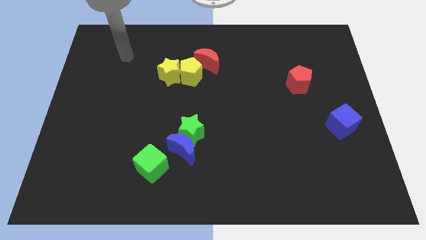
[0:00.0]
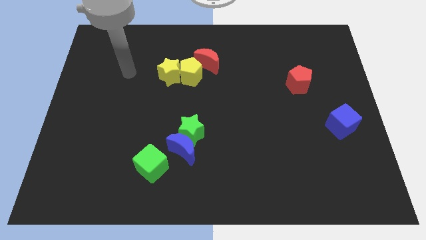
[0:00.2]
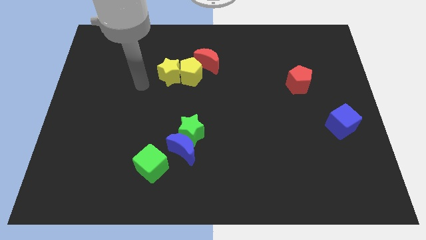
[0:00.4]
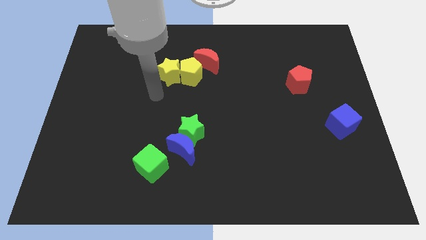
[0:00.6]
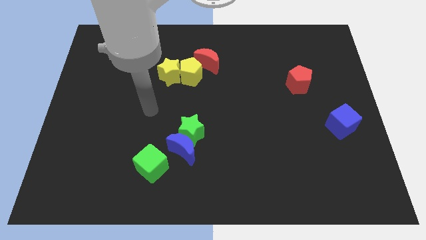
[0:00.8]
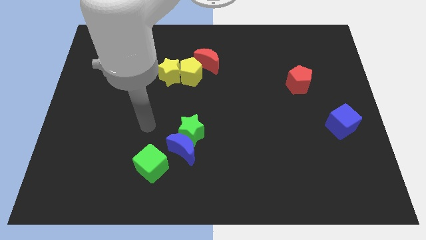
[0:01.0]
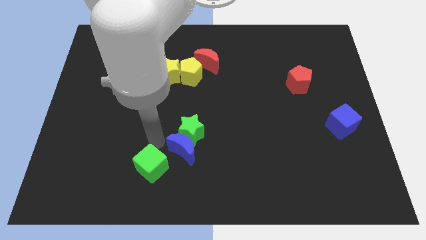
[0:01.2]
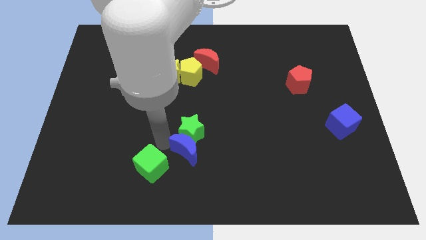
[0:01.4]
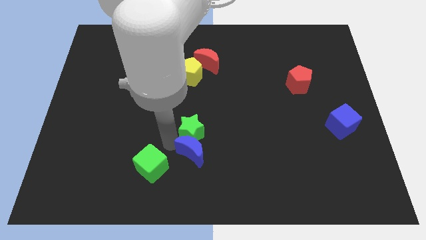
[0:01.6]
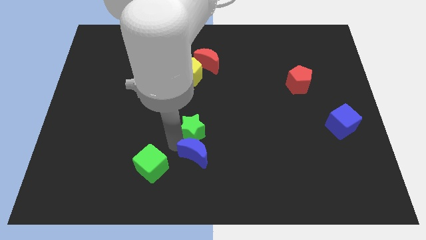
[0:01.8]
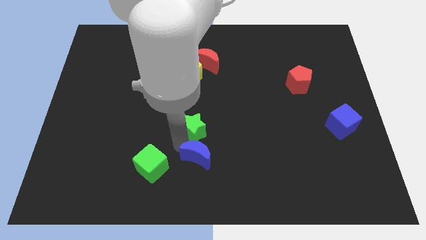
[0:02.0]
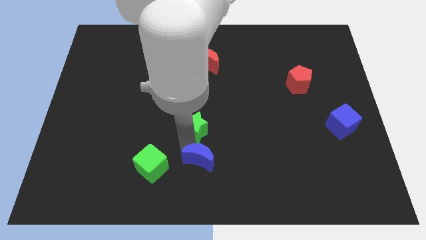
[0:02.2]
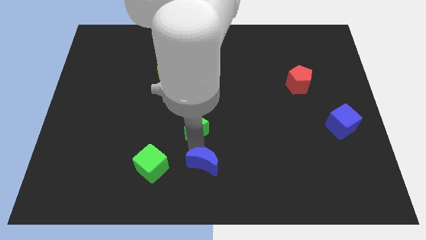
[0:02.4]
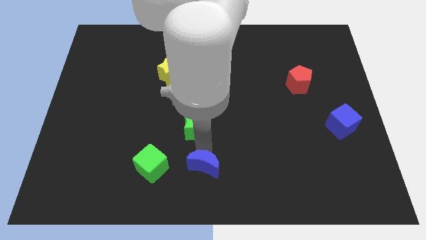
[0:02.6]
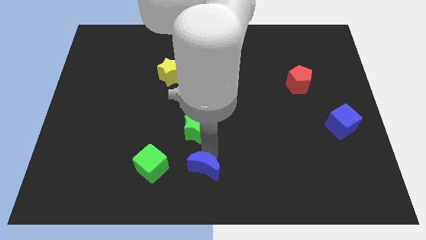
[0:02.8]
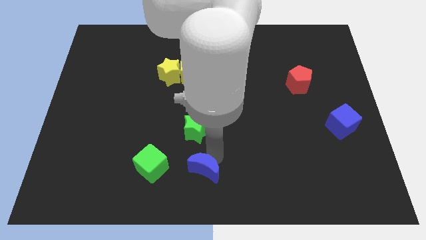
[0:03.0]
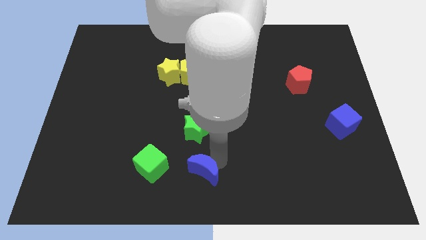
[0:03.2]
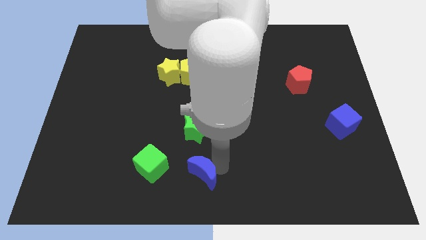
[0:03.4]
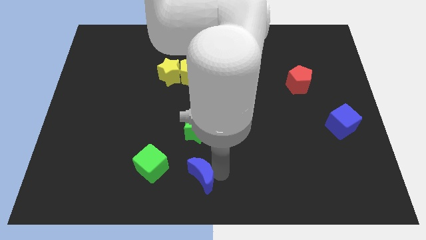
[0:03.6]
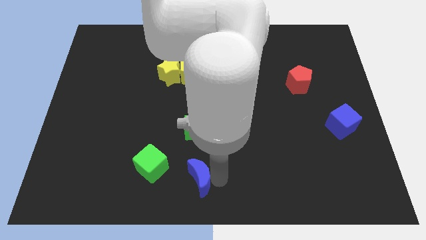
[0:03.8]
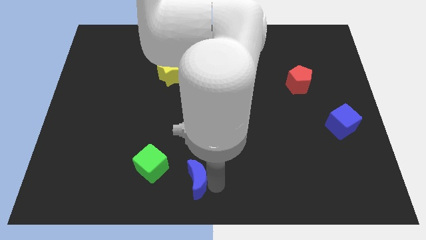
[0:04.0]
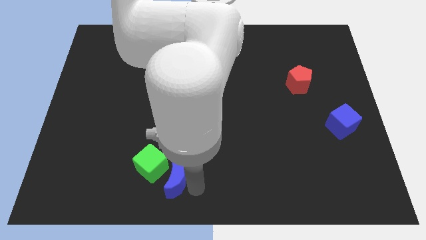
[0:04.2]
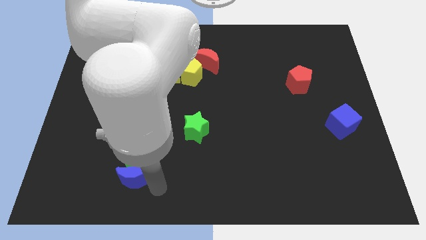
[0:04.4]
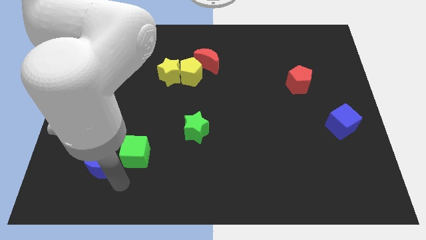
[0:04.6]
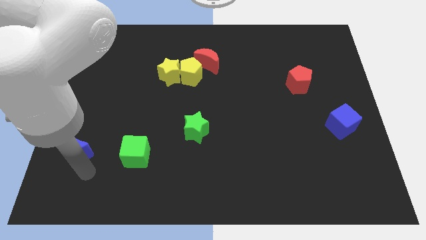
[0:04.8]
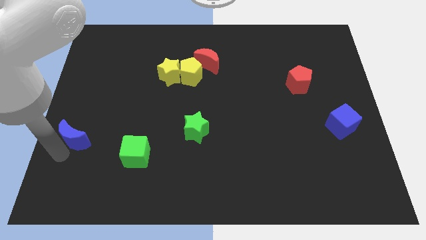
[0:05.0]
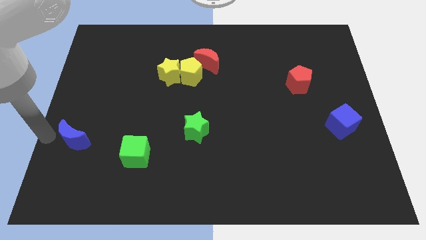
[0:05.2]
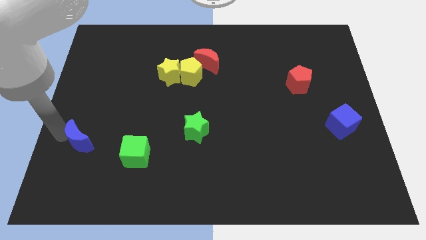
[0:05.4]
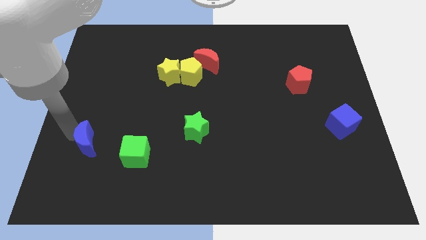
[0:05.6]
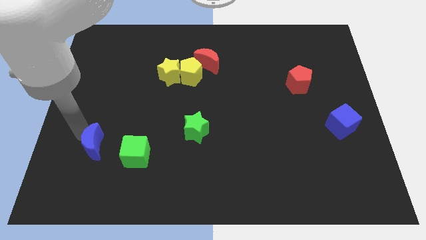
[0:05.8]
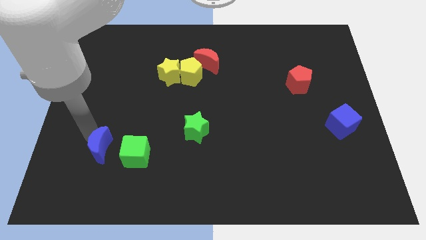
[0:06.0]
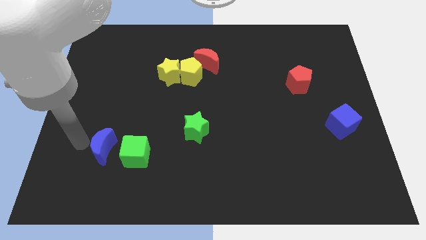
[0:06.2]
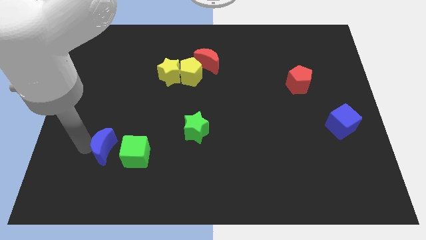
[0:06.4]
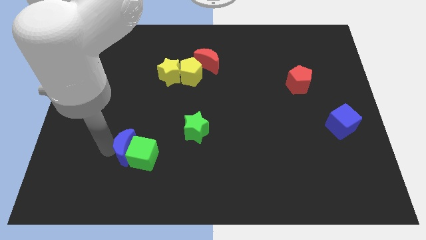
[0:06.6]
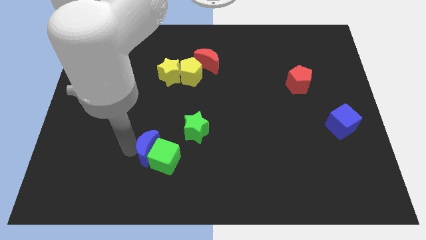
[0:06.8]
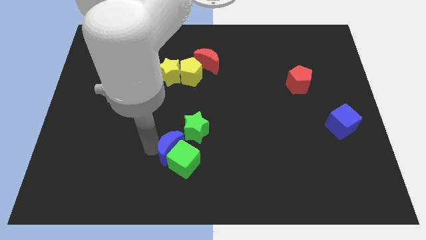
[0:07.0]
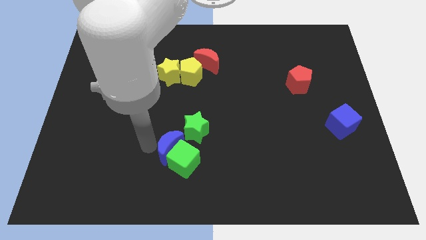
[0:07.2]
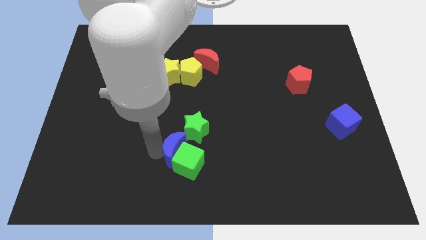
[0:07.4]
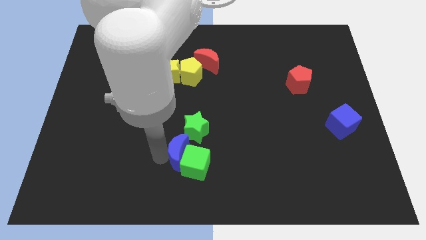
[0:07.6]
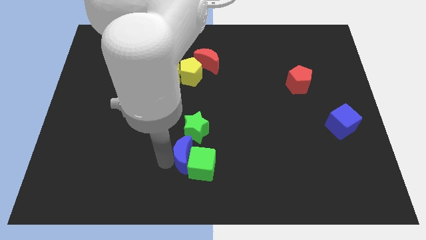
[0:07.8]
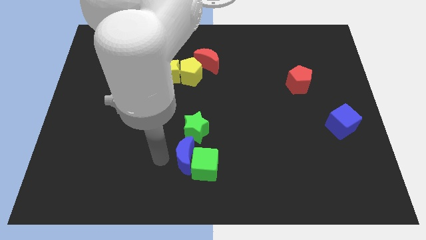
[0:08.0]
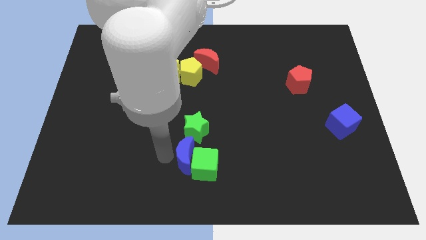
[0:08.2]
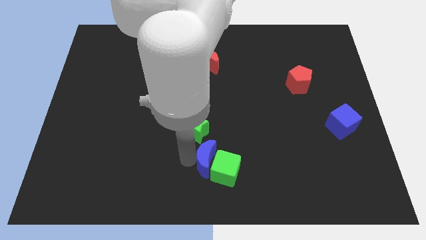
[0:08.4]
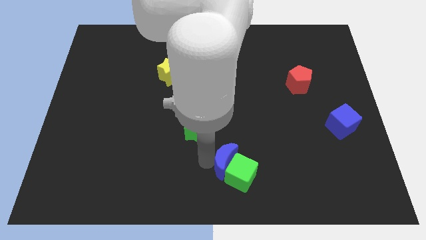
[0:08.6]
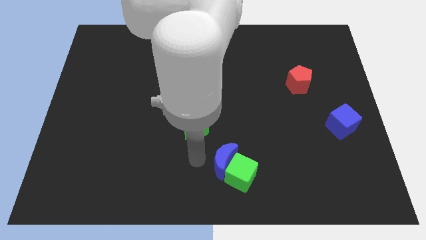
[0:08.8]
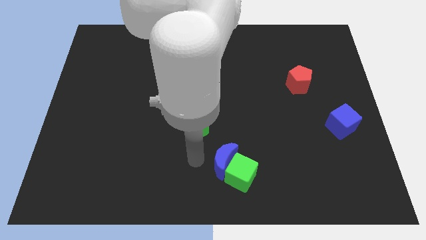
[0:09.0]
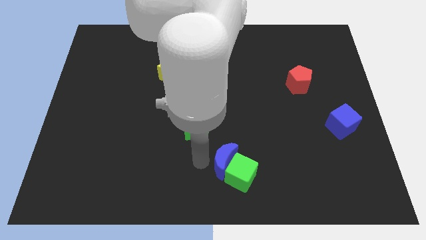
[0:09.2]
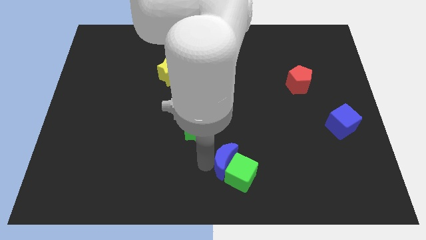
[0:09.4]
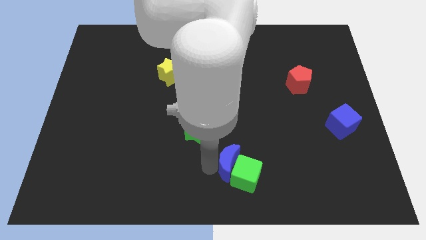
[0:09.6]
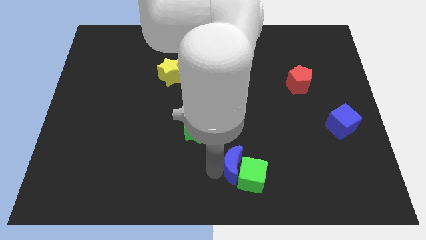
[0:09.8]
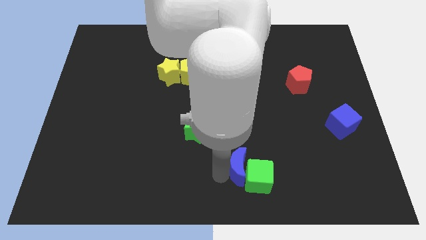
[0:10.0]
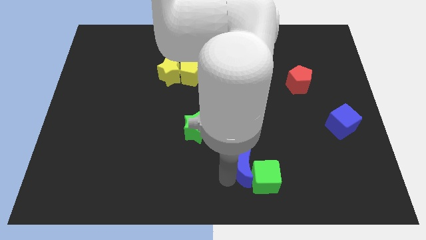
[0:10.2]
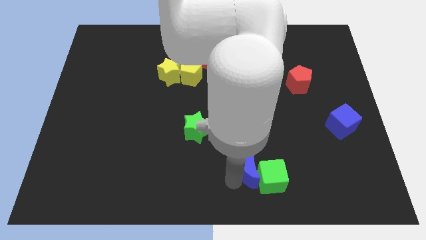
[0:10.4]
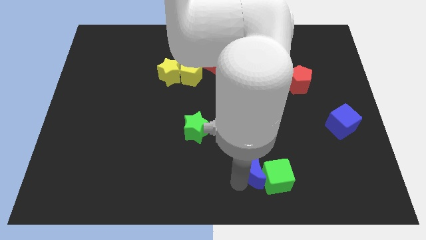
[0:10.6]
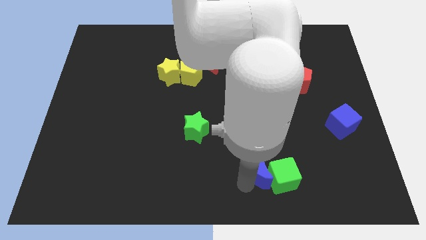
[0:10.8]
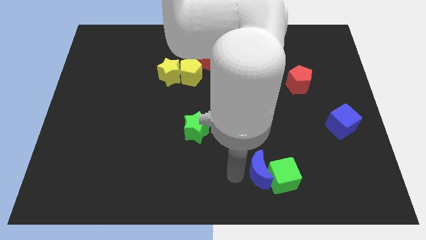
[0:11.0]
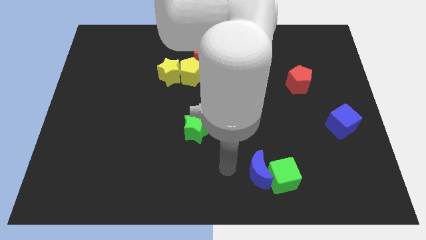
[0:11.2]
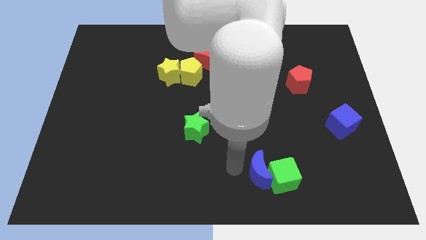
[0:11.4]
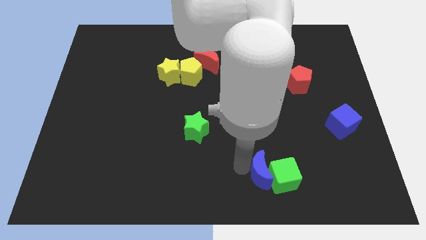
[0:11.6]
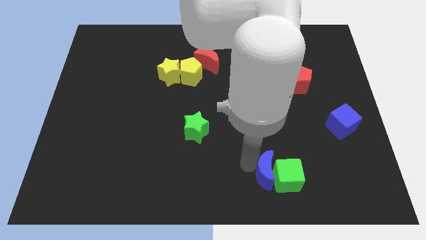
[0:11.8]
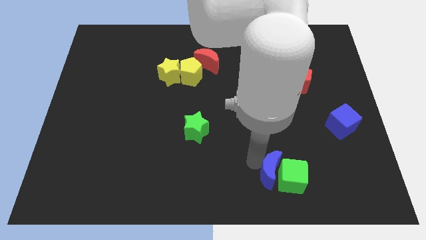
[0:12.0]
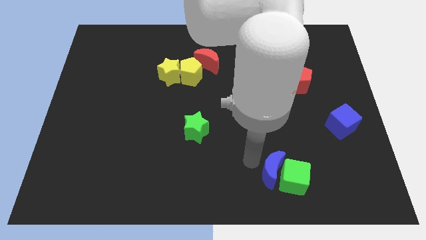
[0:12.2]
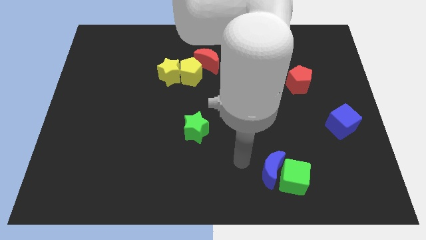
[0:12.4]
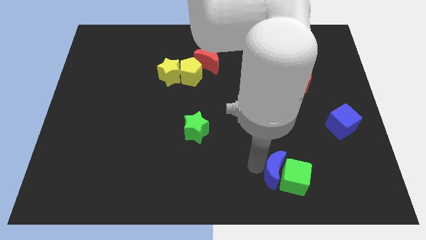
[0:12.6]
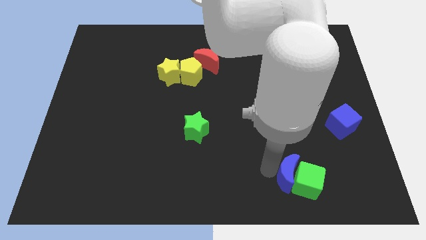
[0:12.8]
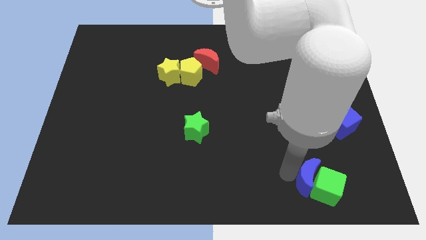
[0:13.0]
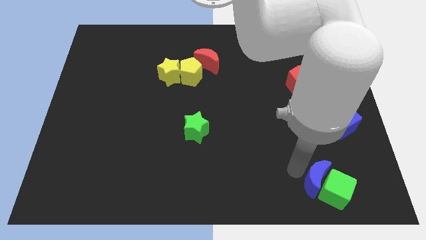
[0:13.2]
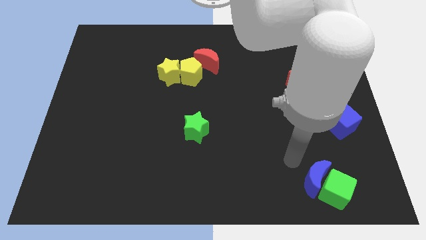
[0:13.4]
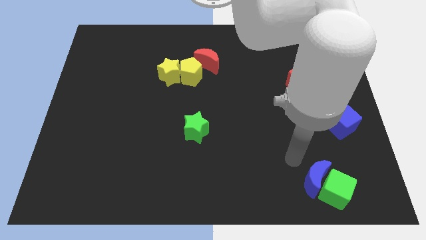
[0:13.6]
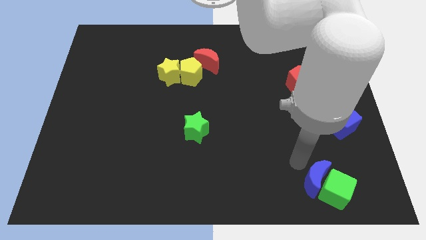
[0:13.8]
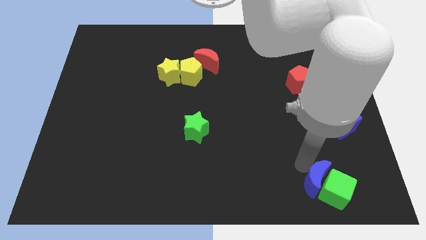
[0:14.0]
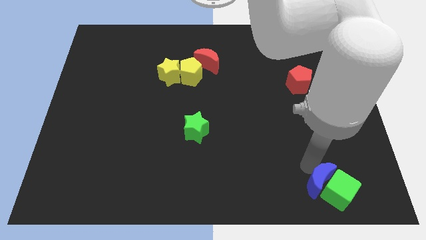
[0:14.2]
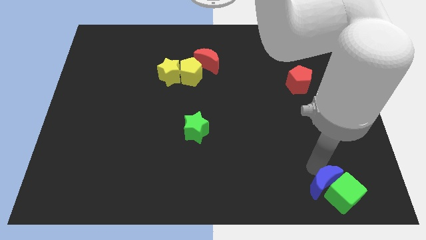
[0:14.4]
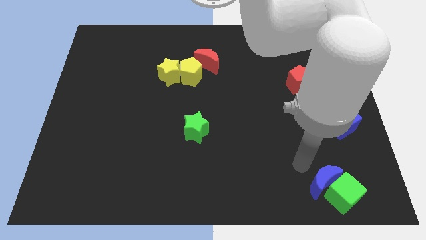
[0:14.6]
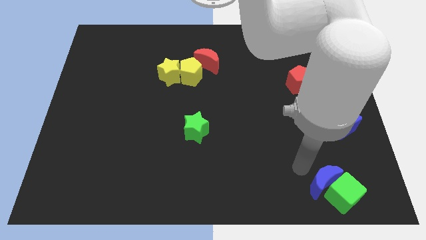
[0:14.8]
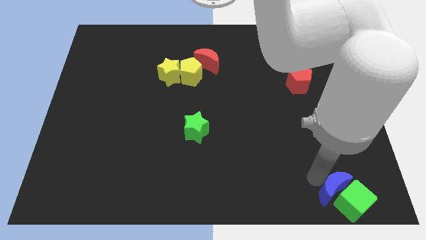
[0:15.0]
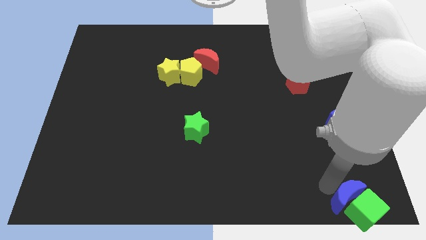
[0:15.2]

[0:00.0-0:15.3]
put the blue moon to the bottom right of the board

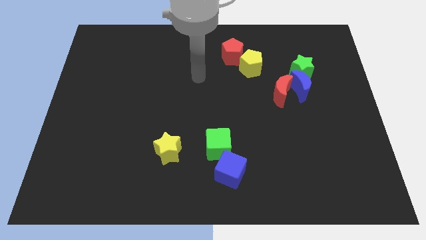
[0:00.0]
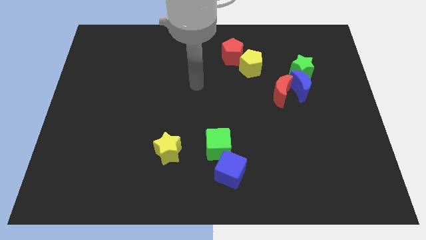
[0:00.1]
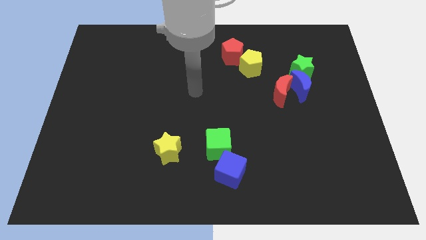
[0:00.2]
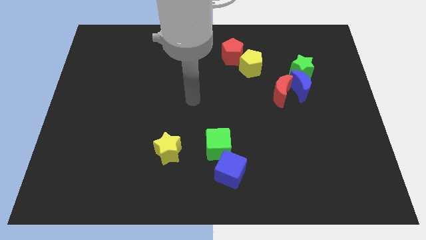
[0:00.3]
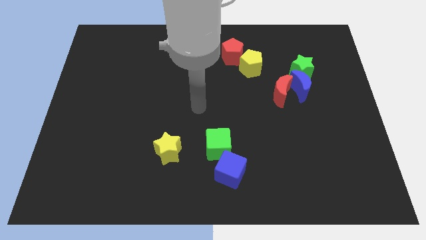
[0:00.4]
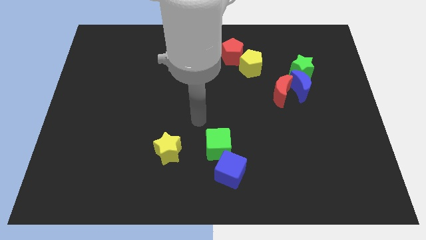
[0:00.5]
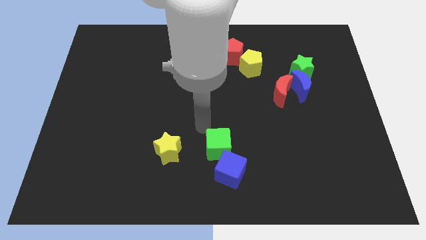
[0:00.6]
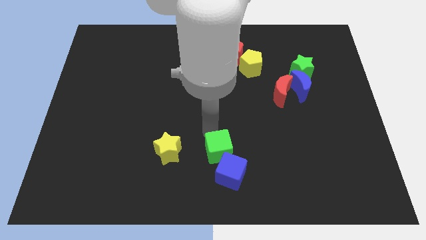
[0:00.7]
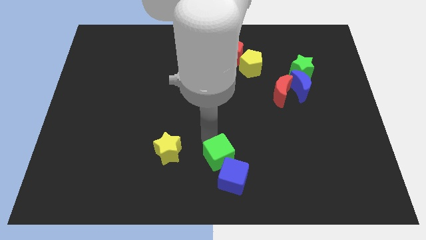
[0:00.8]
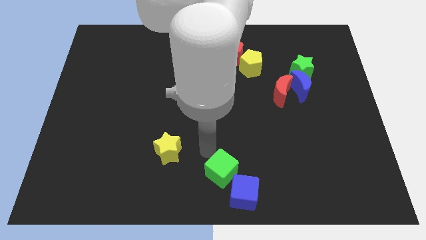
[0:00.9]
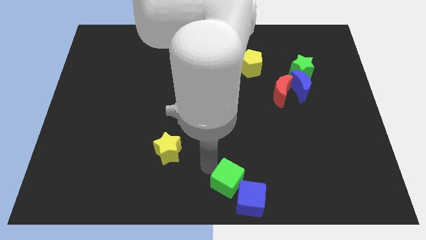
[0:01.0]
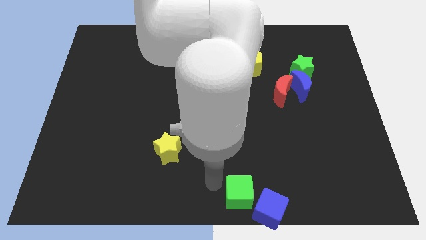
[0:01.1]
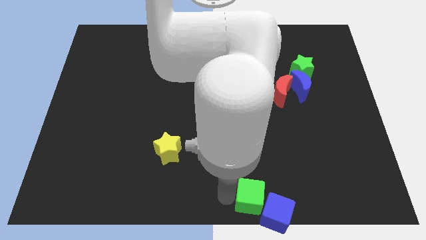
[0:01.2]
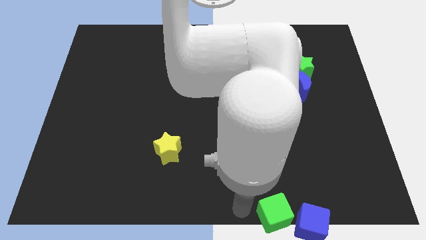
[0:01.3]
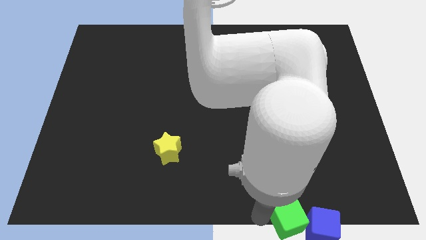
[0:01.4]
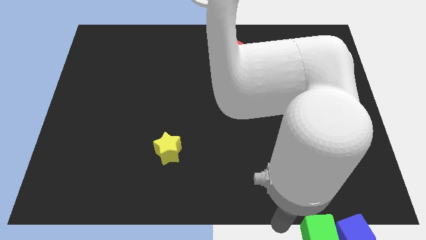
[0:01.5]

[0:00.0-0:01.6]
move the blue cube to the bottom right of the board
